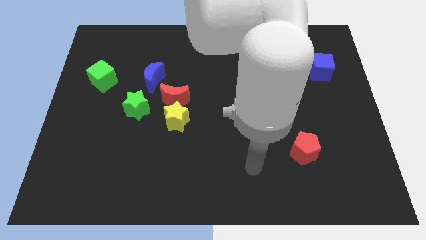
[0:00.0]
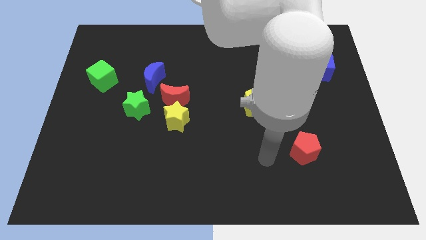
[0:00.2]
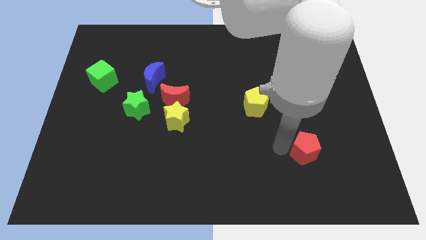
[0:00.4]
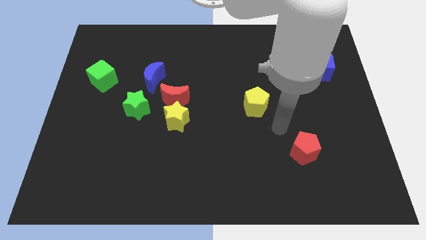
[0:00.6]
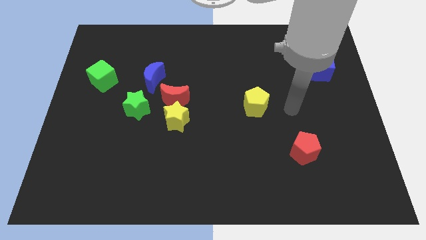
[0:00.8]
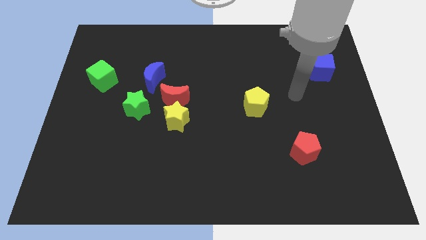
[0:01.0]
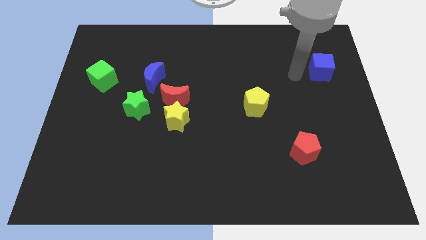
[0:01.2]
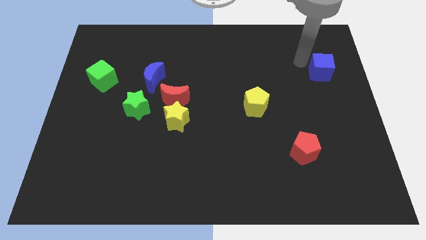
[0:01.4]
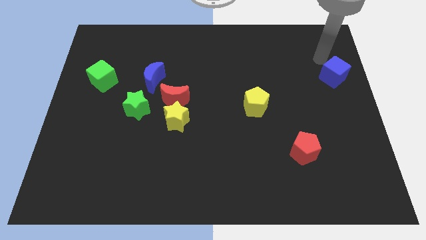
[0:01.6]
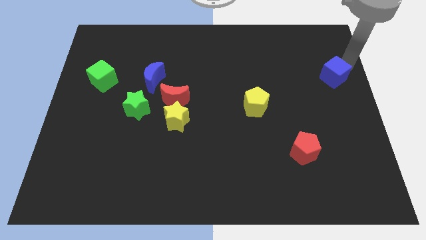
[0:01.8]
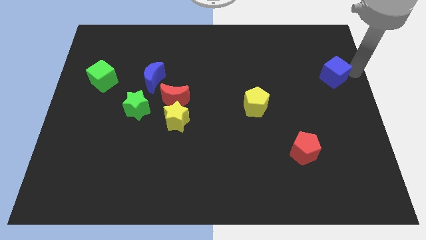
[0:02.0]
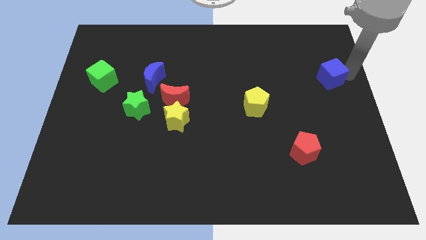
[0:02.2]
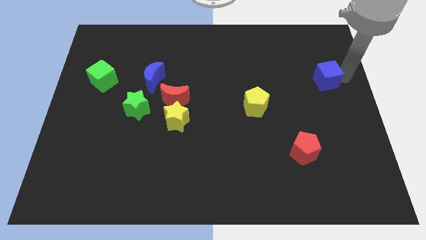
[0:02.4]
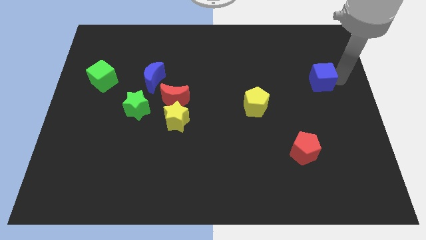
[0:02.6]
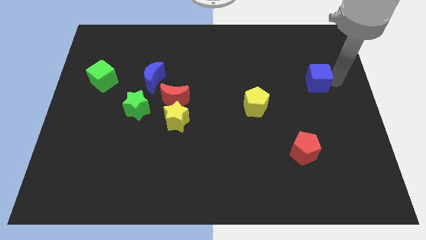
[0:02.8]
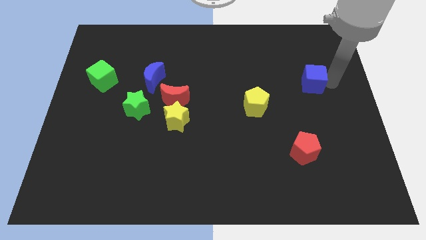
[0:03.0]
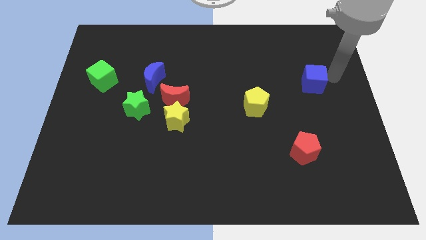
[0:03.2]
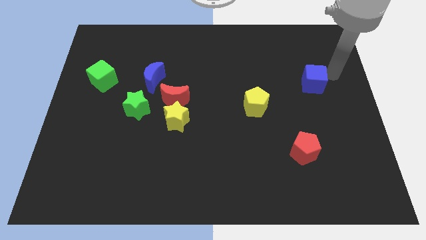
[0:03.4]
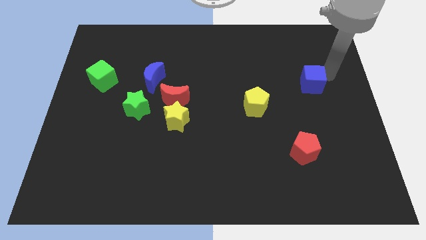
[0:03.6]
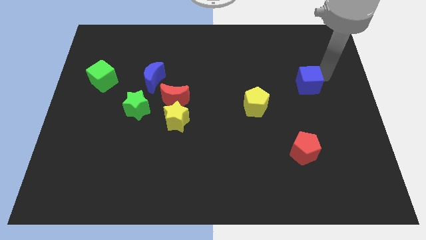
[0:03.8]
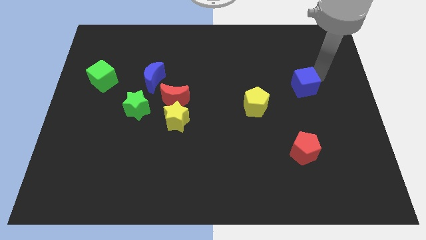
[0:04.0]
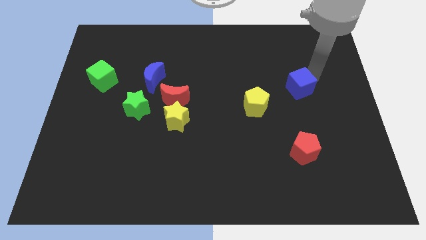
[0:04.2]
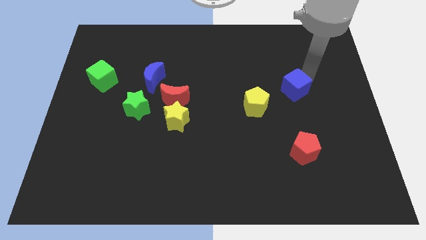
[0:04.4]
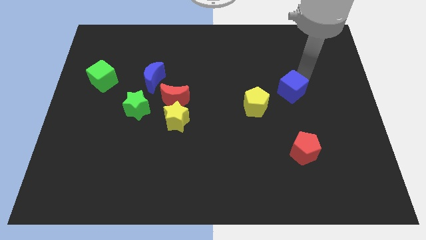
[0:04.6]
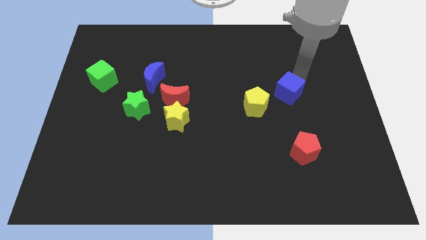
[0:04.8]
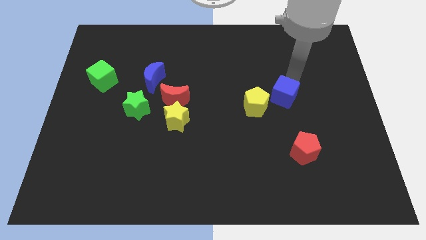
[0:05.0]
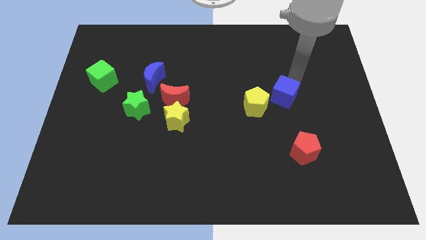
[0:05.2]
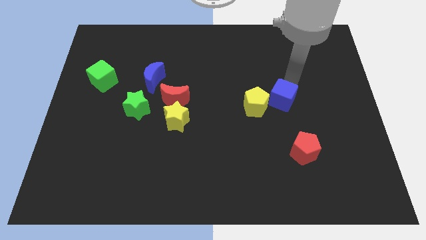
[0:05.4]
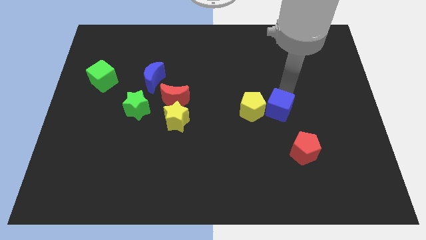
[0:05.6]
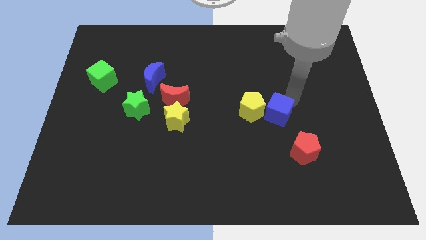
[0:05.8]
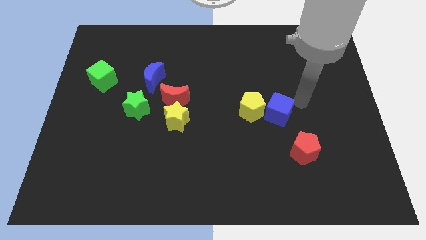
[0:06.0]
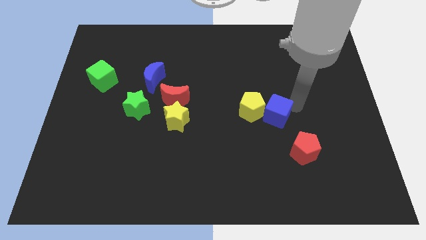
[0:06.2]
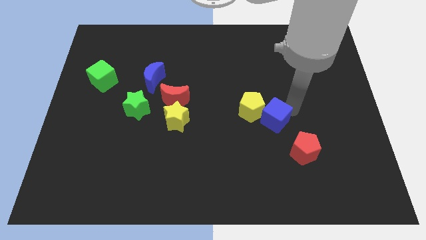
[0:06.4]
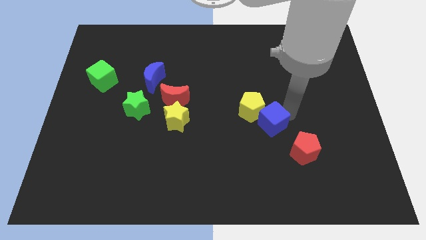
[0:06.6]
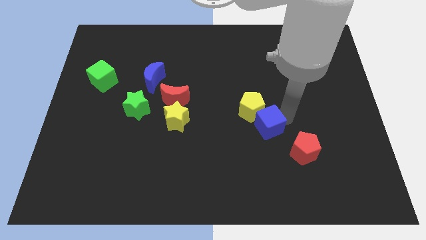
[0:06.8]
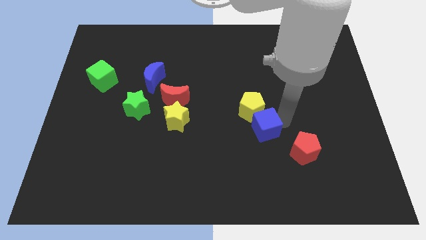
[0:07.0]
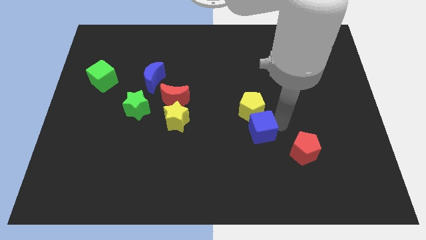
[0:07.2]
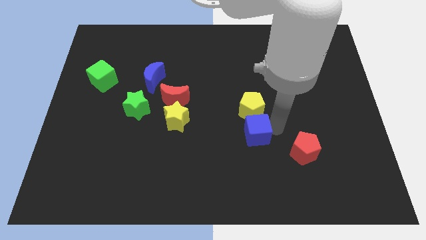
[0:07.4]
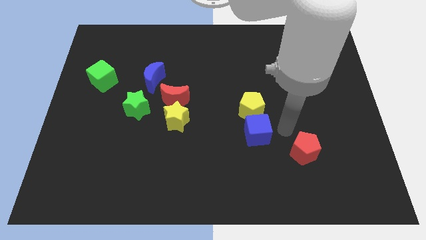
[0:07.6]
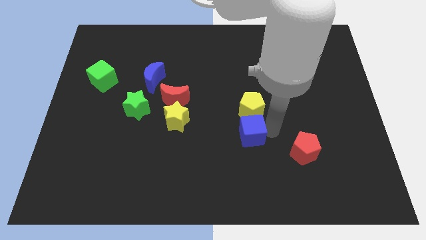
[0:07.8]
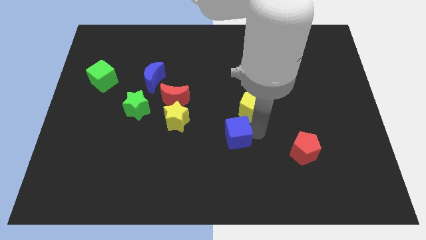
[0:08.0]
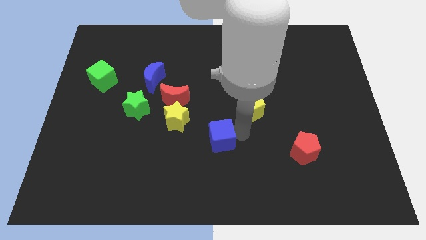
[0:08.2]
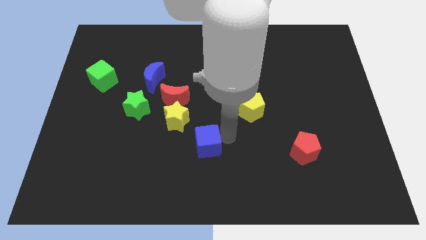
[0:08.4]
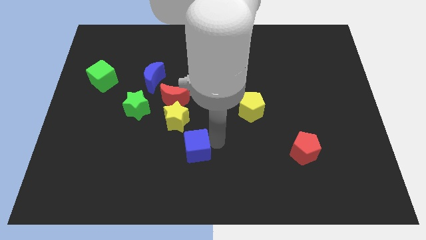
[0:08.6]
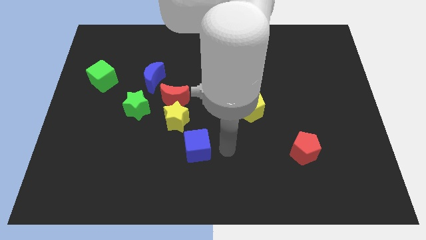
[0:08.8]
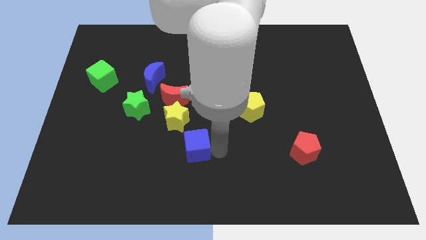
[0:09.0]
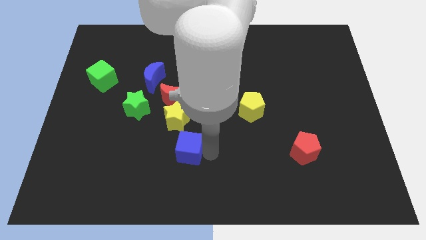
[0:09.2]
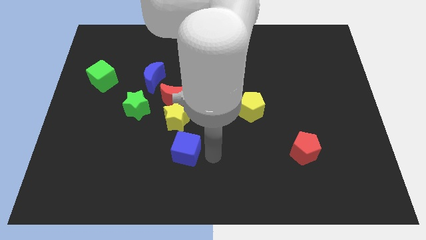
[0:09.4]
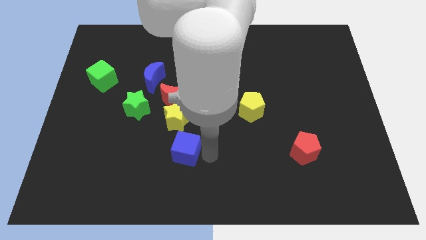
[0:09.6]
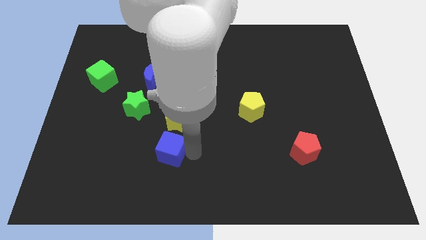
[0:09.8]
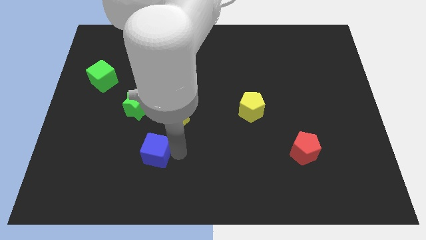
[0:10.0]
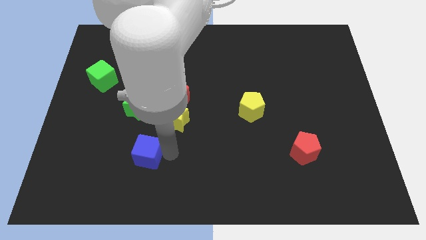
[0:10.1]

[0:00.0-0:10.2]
push the blue cube to the bottom of the green star
